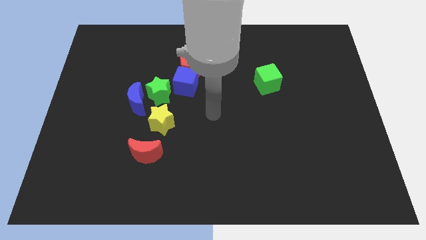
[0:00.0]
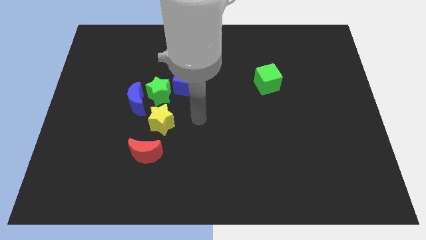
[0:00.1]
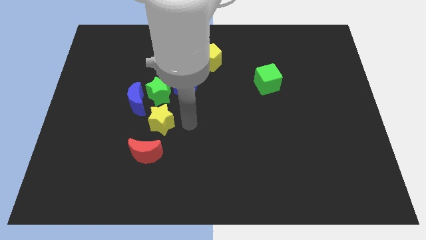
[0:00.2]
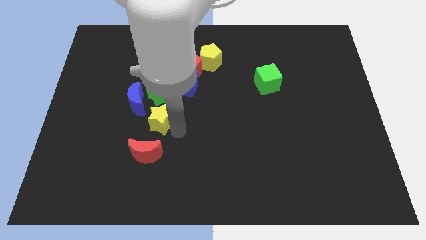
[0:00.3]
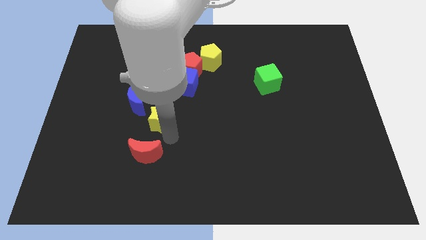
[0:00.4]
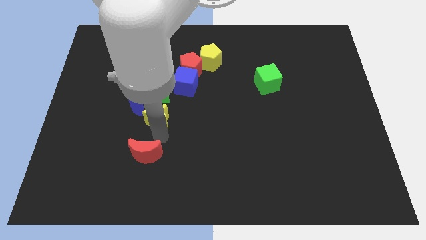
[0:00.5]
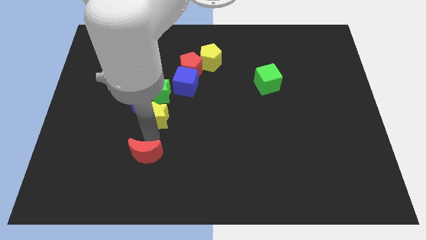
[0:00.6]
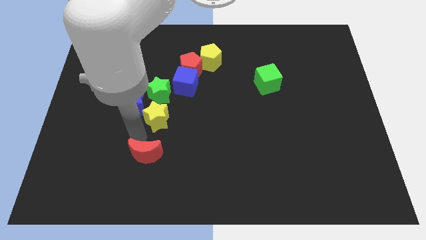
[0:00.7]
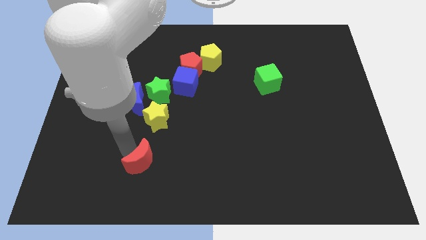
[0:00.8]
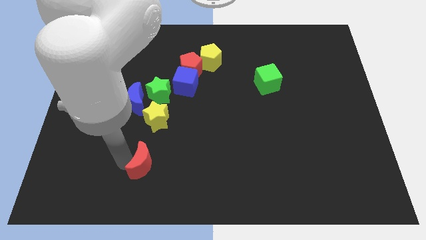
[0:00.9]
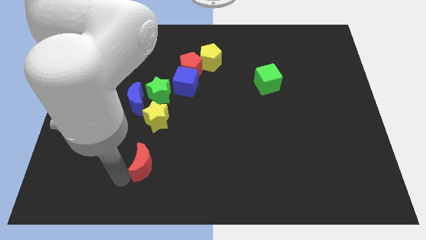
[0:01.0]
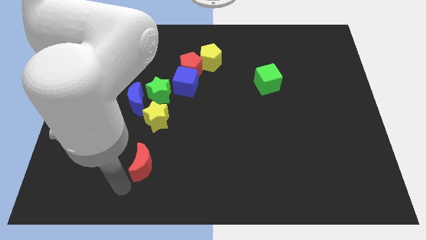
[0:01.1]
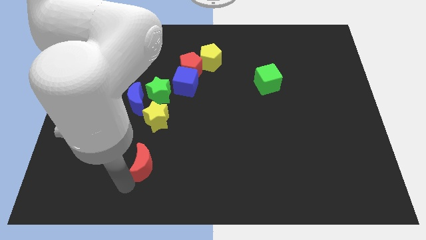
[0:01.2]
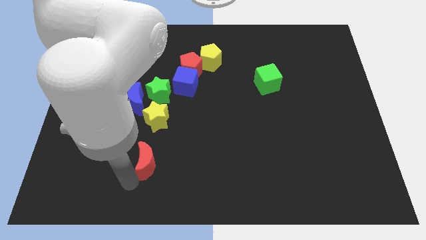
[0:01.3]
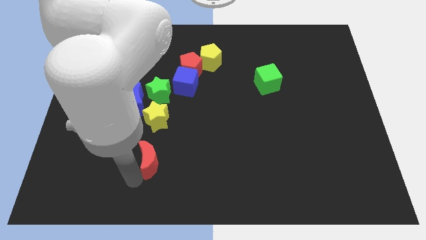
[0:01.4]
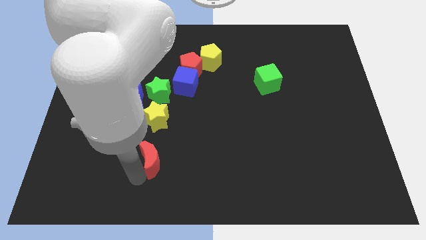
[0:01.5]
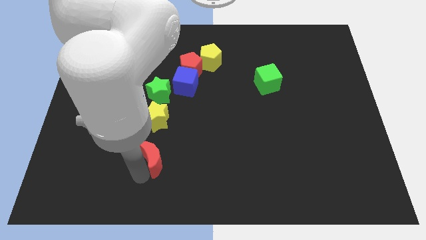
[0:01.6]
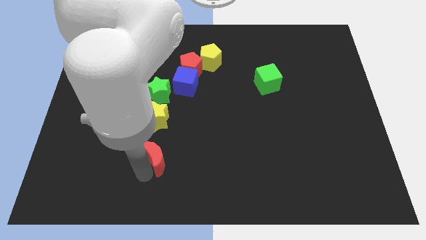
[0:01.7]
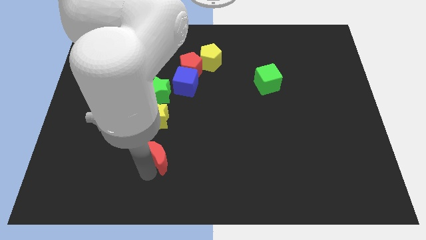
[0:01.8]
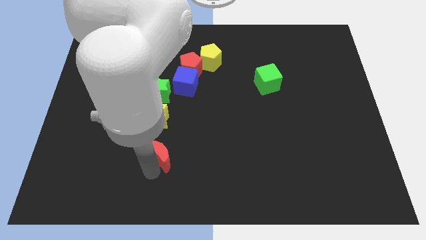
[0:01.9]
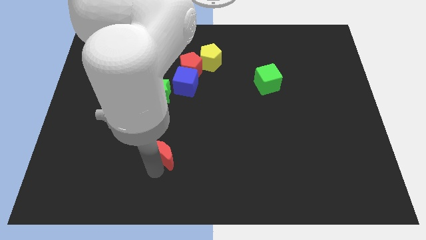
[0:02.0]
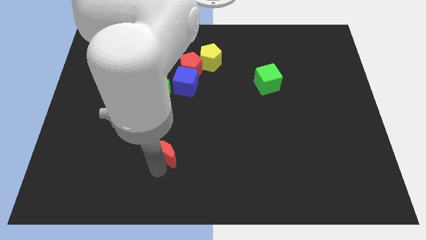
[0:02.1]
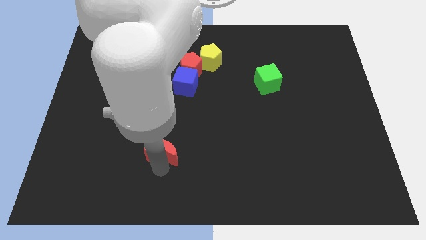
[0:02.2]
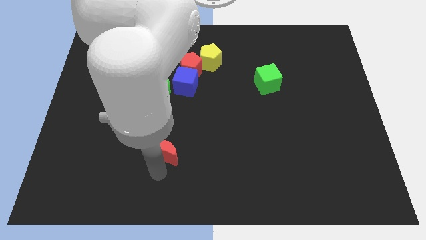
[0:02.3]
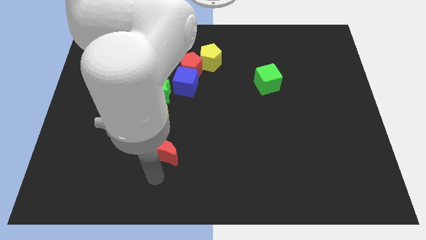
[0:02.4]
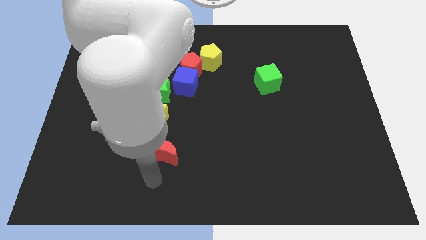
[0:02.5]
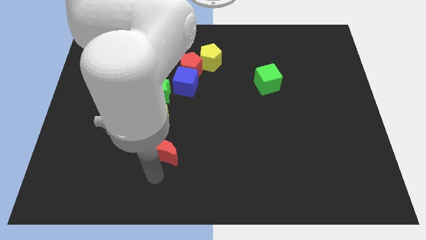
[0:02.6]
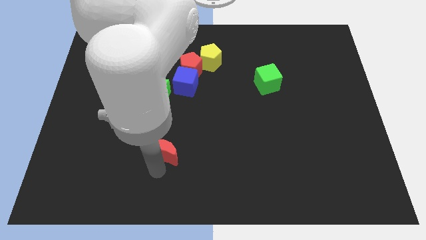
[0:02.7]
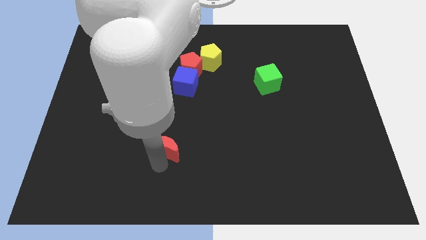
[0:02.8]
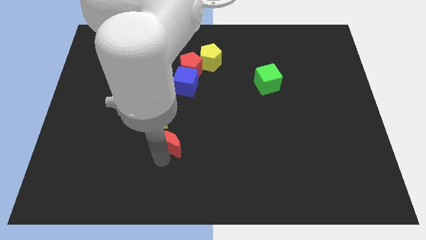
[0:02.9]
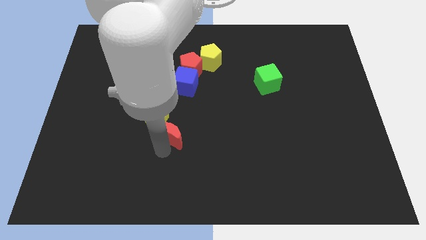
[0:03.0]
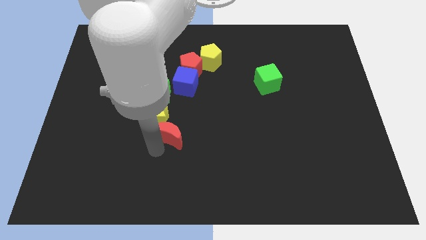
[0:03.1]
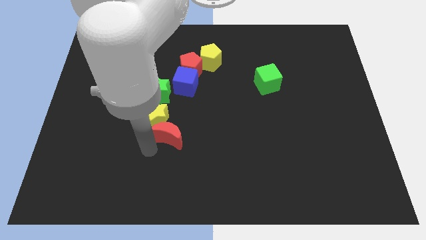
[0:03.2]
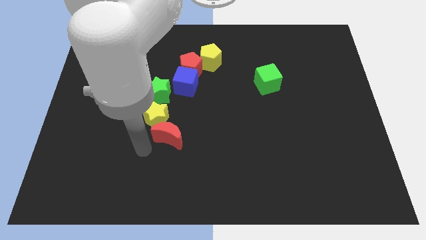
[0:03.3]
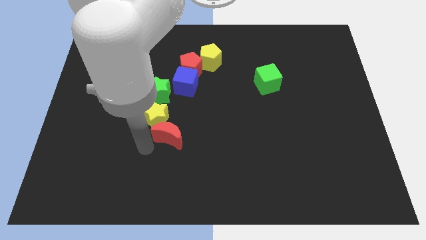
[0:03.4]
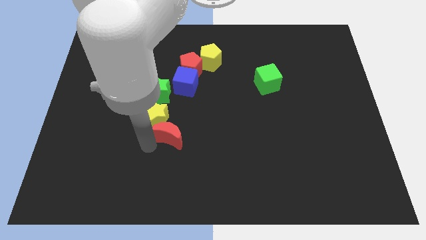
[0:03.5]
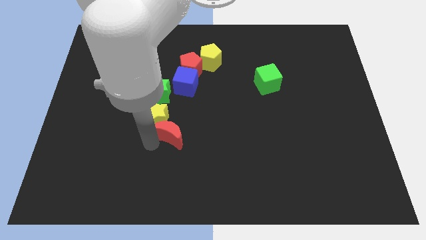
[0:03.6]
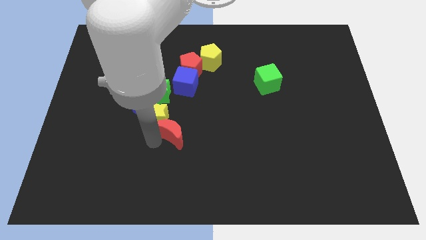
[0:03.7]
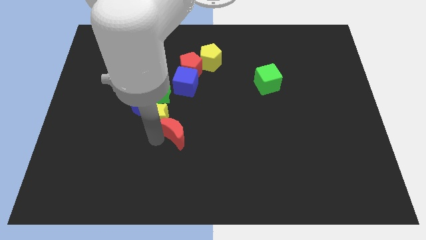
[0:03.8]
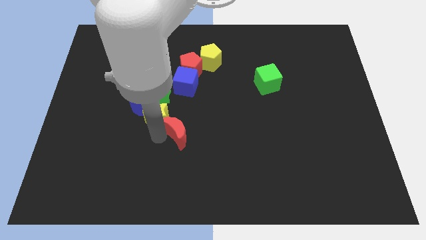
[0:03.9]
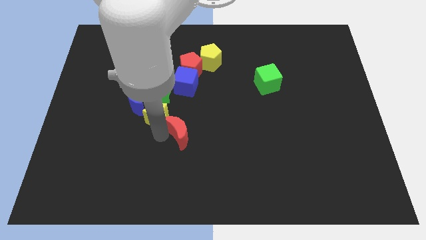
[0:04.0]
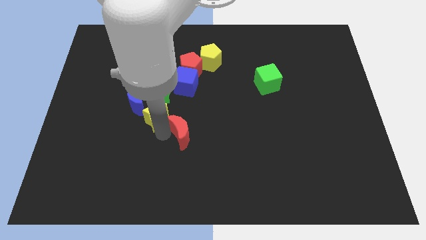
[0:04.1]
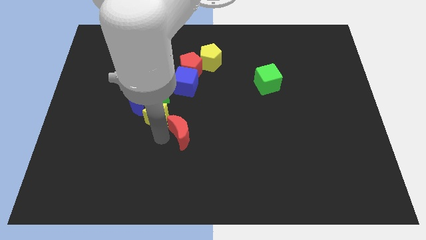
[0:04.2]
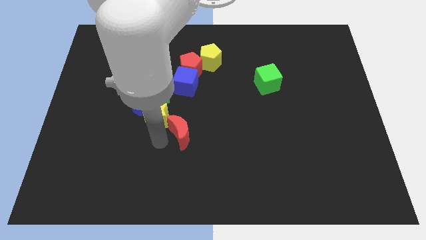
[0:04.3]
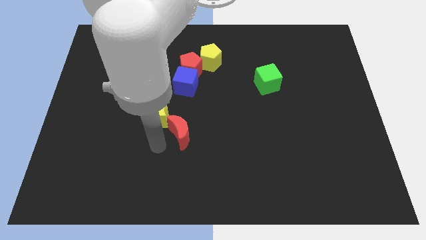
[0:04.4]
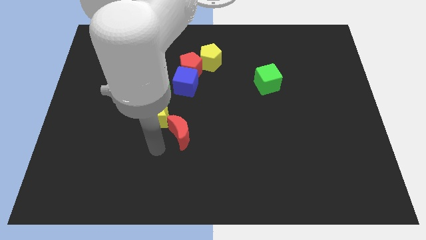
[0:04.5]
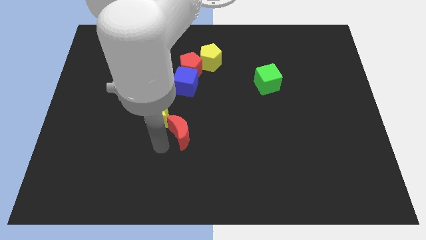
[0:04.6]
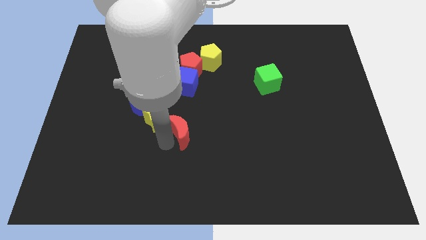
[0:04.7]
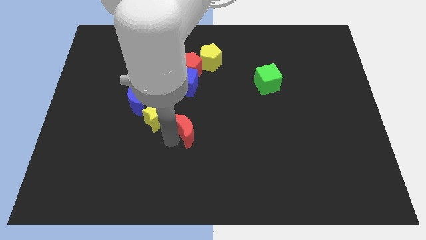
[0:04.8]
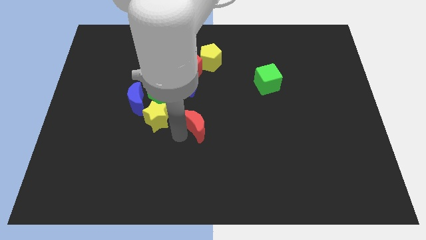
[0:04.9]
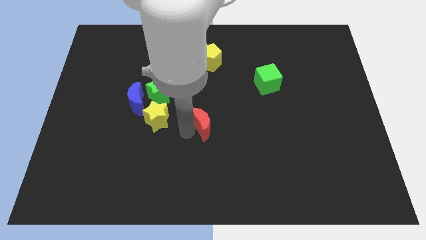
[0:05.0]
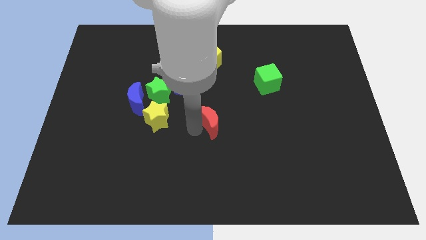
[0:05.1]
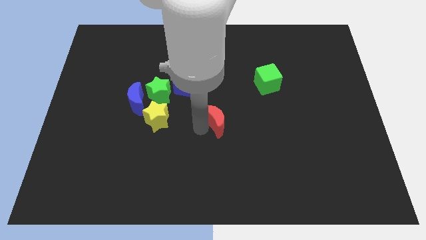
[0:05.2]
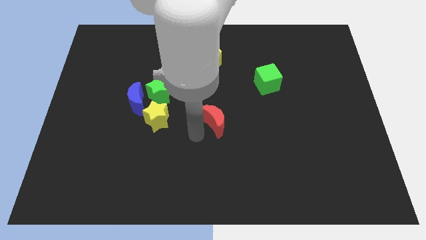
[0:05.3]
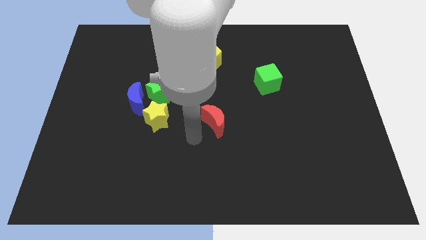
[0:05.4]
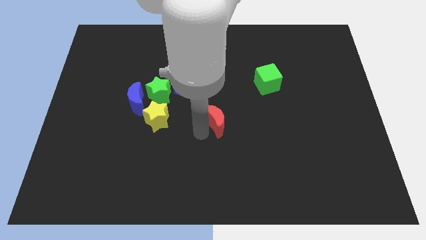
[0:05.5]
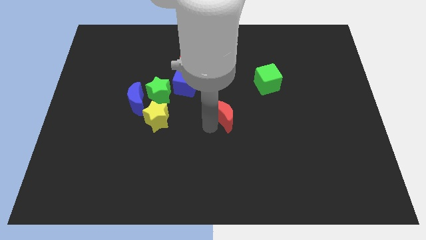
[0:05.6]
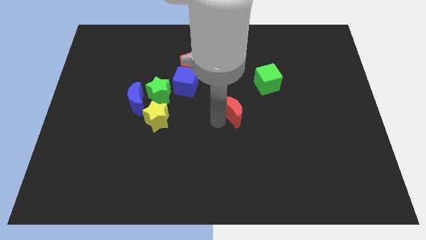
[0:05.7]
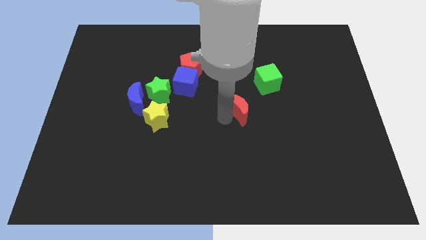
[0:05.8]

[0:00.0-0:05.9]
move the red moon to the bottom left side of the green cube

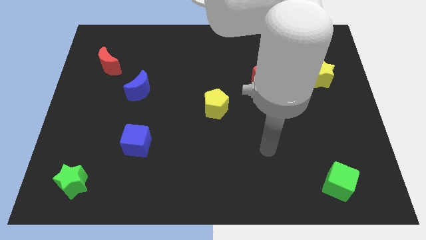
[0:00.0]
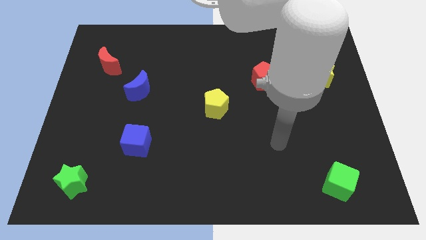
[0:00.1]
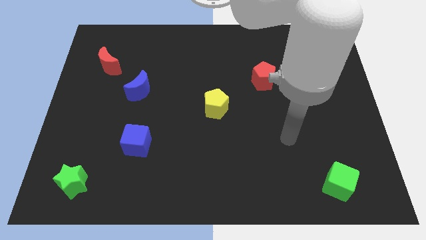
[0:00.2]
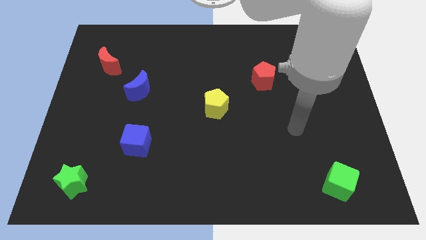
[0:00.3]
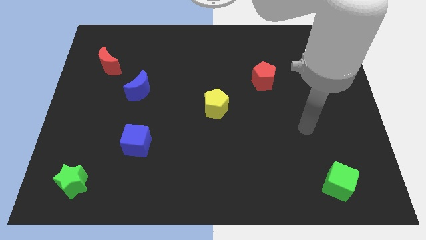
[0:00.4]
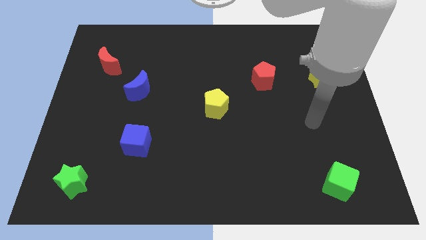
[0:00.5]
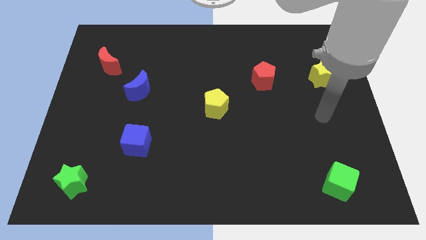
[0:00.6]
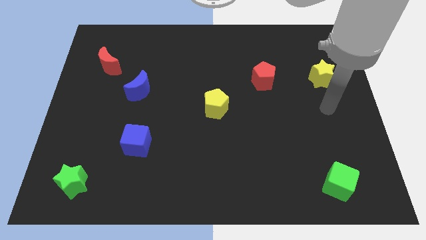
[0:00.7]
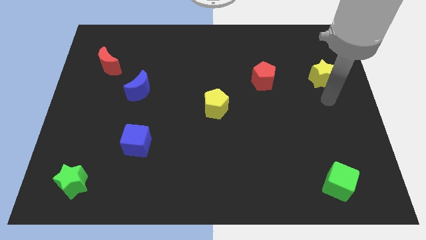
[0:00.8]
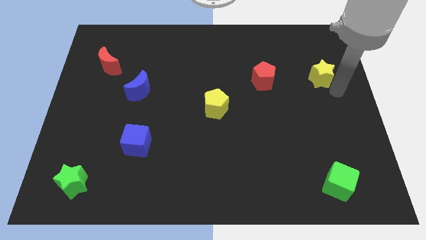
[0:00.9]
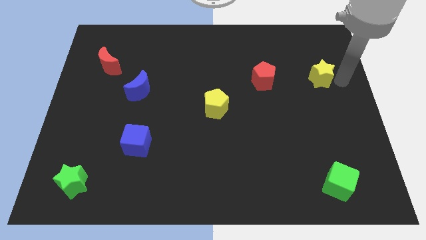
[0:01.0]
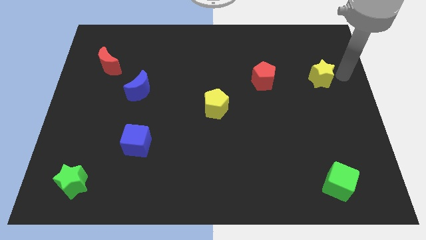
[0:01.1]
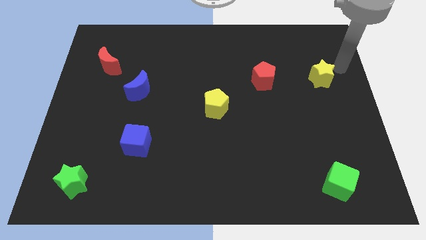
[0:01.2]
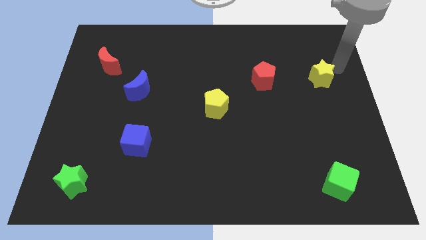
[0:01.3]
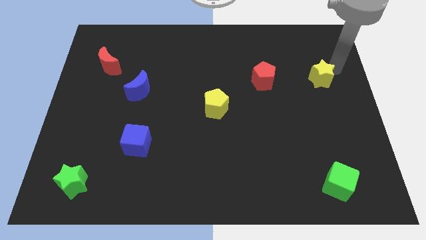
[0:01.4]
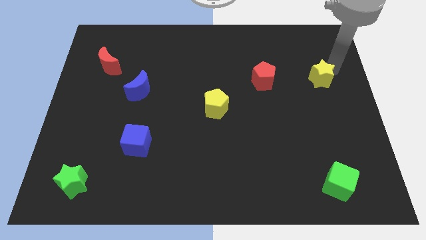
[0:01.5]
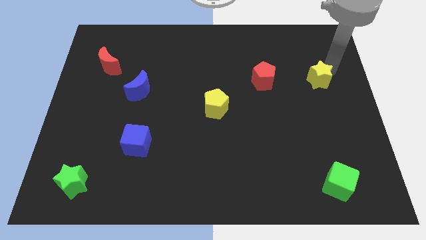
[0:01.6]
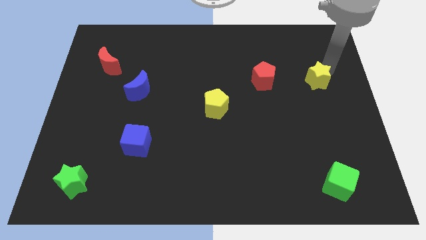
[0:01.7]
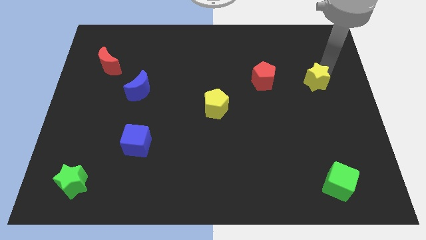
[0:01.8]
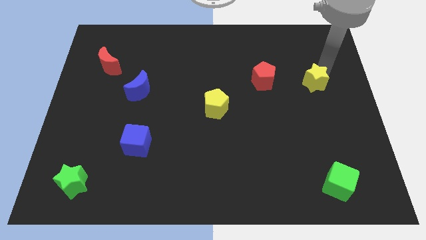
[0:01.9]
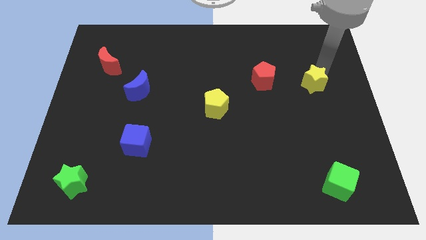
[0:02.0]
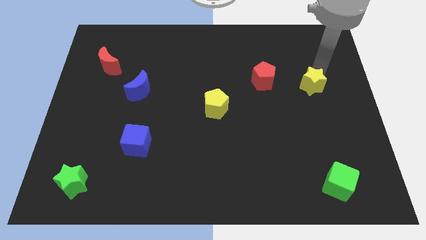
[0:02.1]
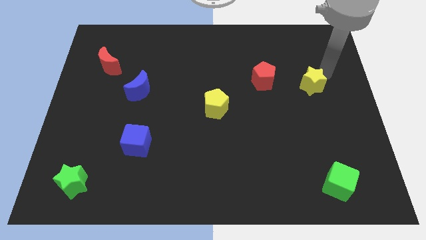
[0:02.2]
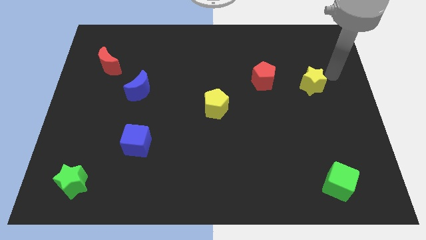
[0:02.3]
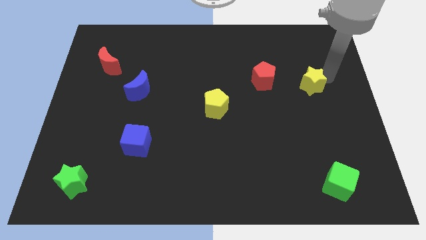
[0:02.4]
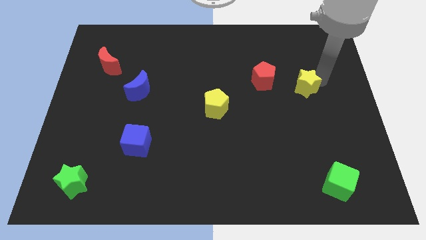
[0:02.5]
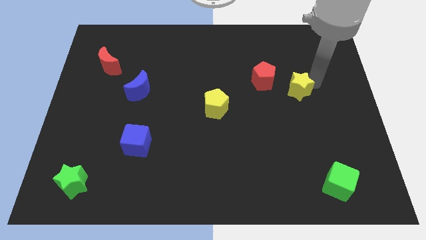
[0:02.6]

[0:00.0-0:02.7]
put the yellow star diagonally down and to the right of the red pentagon
